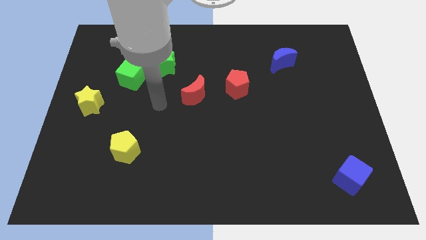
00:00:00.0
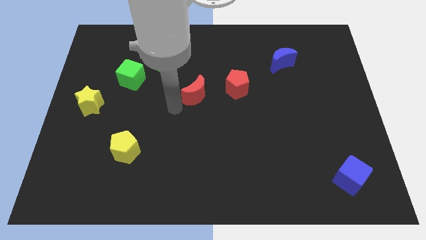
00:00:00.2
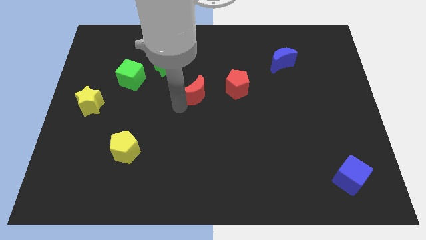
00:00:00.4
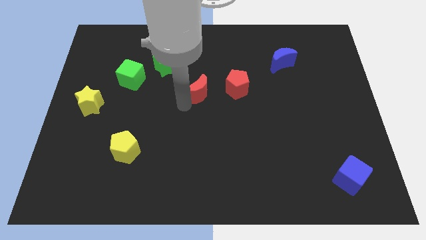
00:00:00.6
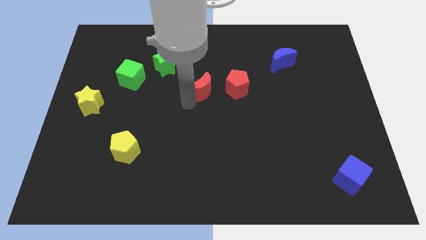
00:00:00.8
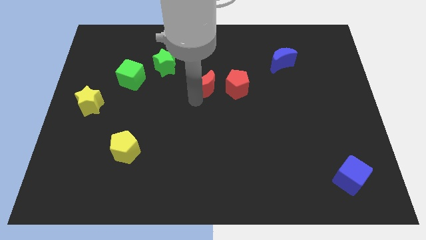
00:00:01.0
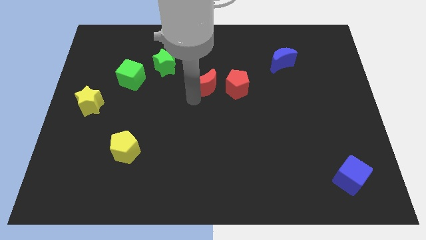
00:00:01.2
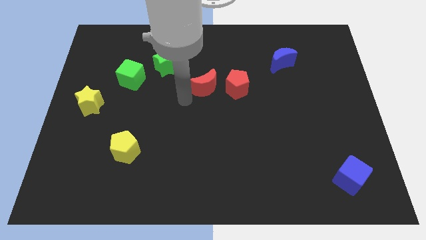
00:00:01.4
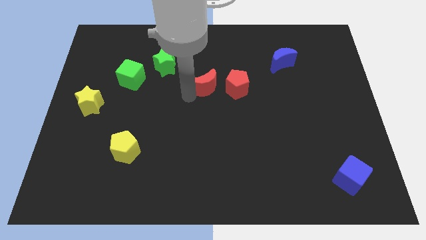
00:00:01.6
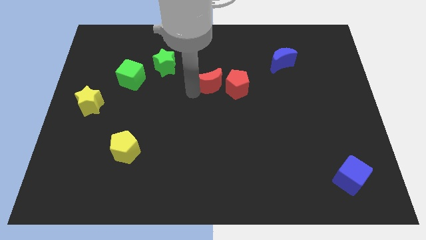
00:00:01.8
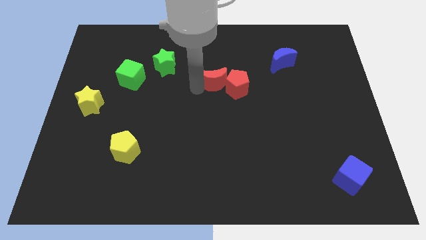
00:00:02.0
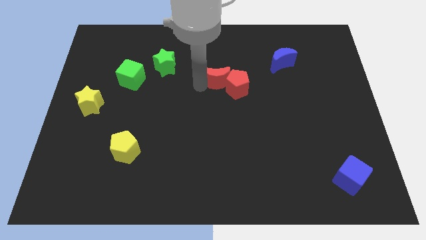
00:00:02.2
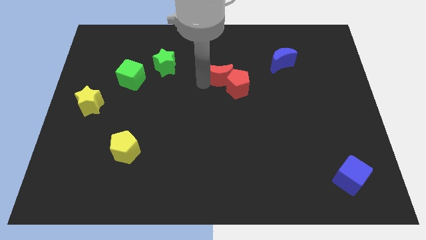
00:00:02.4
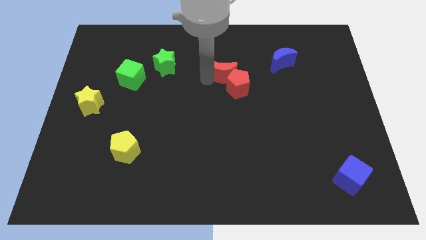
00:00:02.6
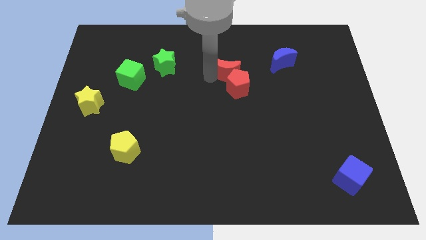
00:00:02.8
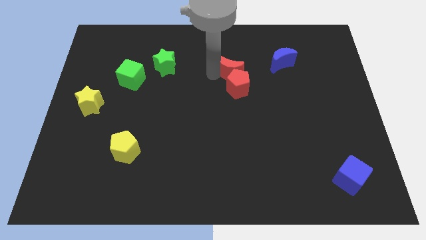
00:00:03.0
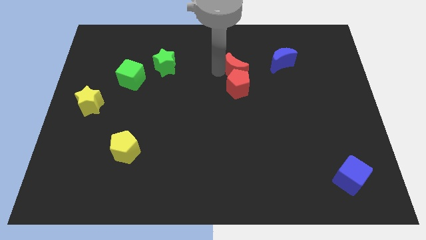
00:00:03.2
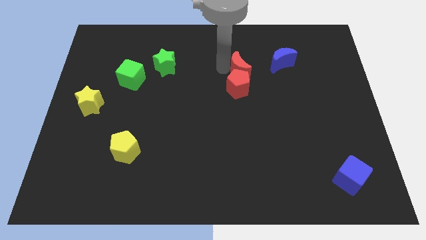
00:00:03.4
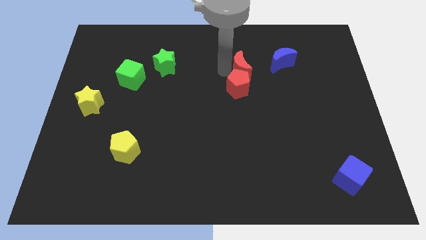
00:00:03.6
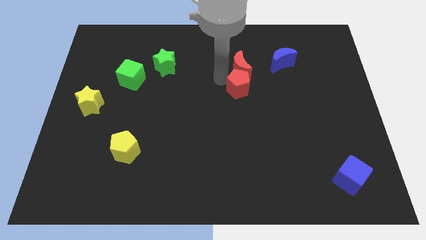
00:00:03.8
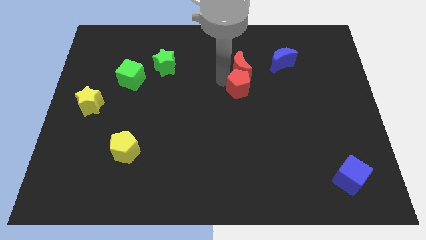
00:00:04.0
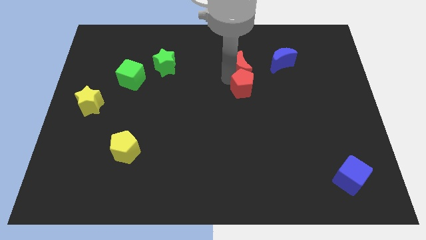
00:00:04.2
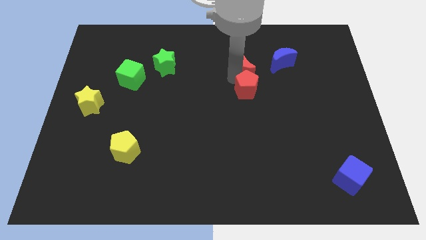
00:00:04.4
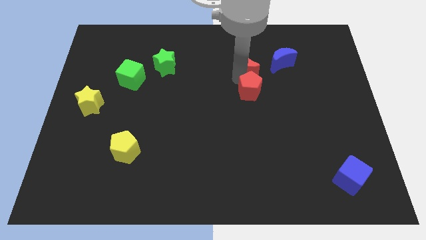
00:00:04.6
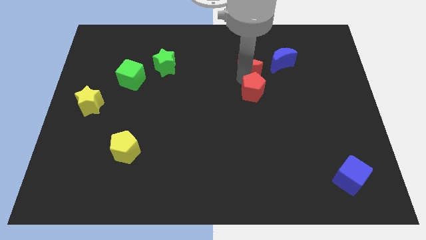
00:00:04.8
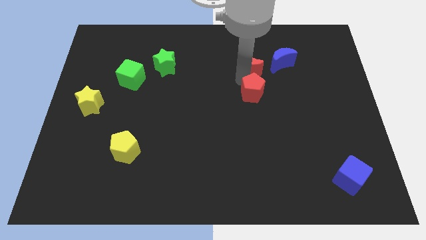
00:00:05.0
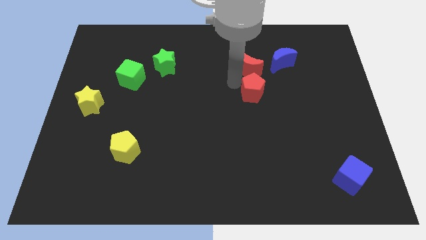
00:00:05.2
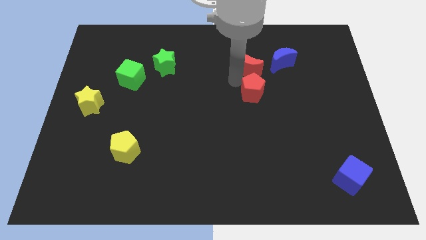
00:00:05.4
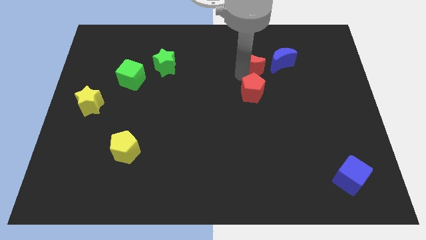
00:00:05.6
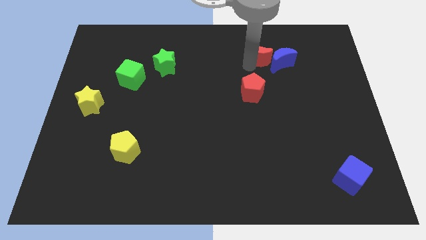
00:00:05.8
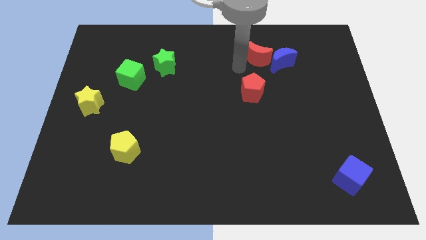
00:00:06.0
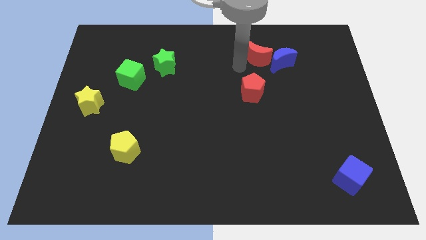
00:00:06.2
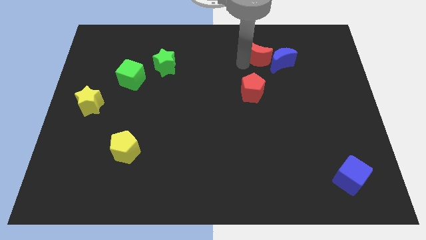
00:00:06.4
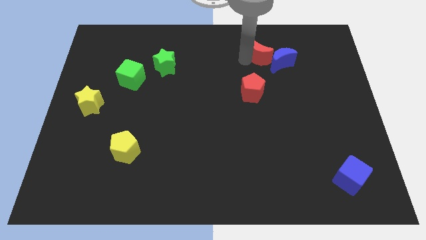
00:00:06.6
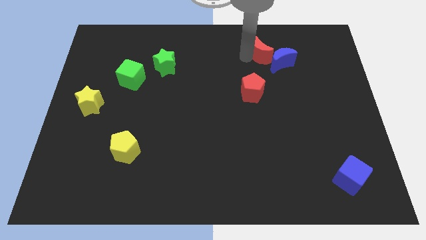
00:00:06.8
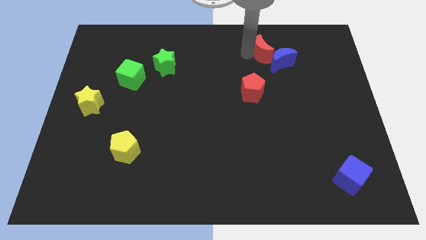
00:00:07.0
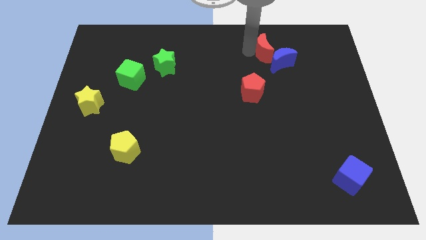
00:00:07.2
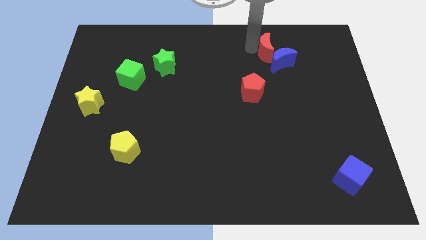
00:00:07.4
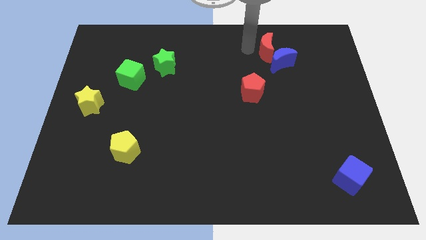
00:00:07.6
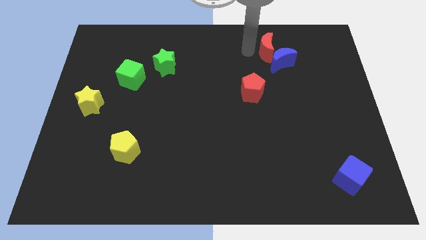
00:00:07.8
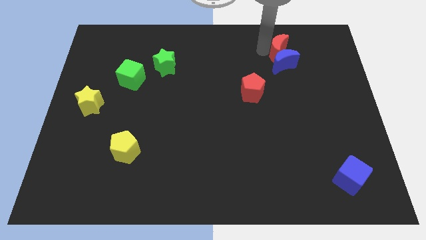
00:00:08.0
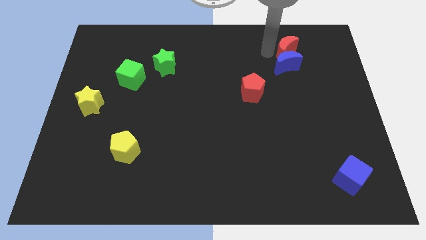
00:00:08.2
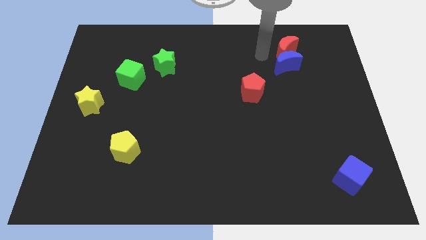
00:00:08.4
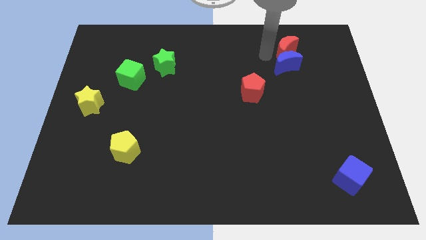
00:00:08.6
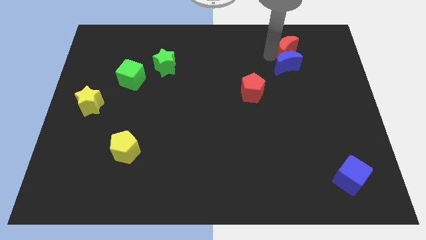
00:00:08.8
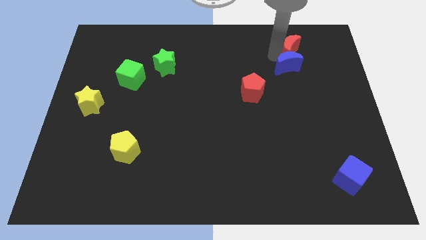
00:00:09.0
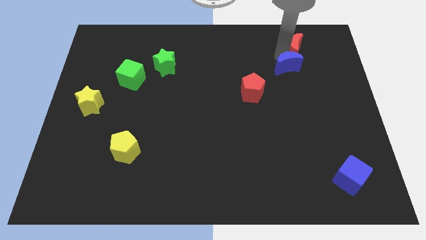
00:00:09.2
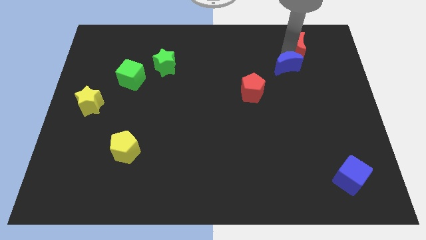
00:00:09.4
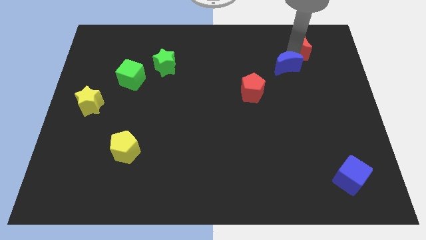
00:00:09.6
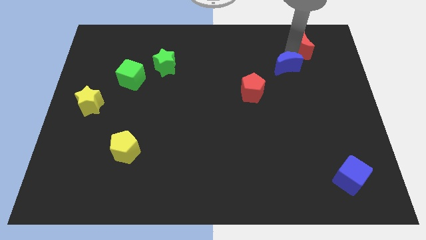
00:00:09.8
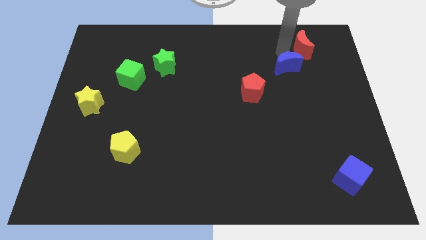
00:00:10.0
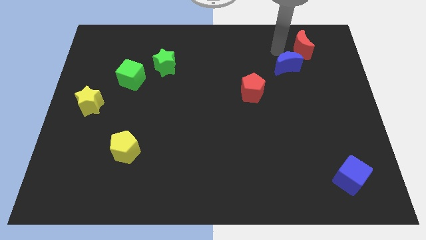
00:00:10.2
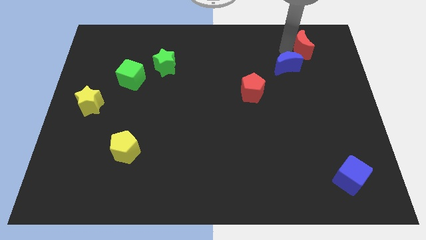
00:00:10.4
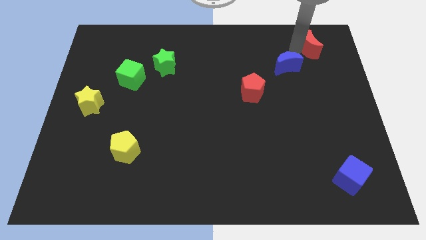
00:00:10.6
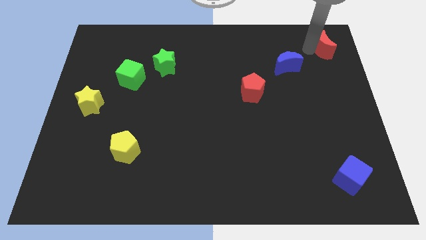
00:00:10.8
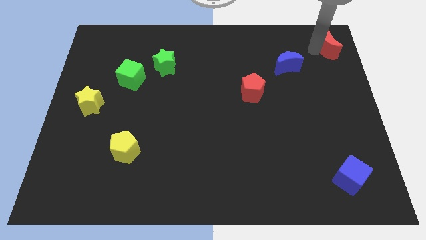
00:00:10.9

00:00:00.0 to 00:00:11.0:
put the red moon to the top right
